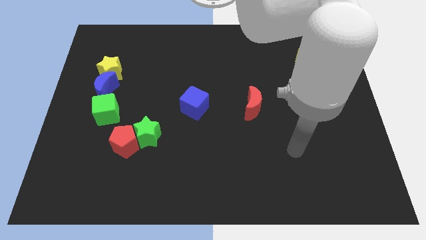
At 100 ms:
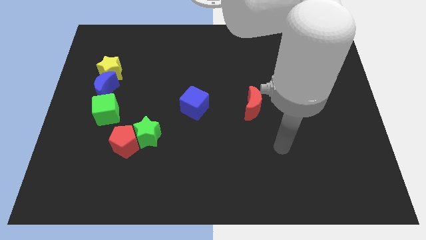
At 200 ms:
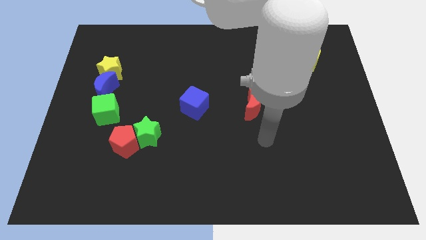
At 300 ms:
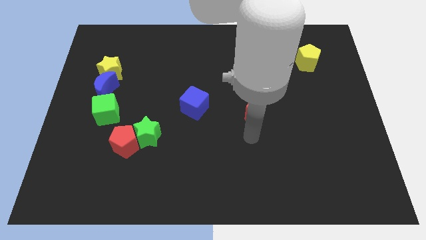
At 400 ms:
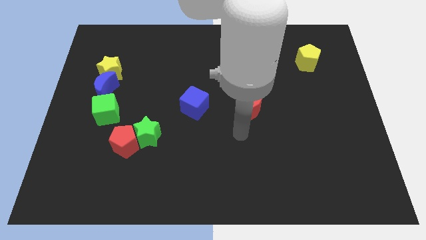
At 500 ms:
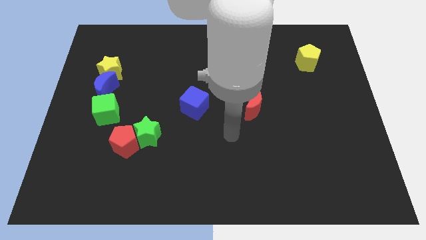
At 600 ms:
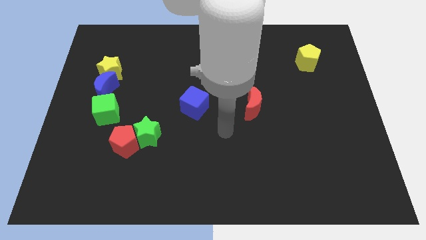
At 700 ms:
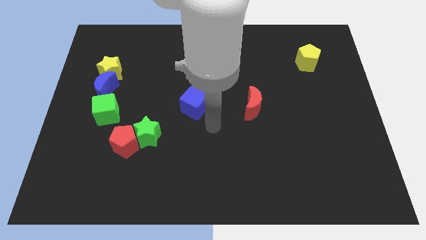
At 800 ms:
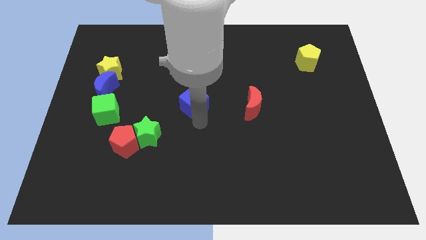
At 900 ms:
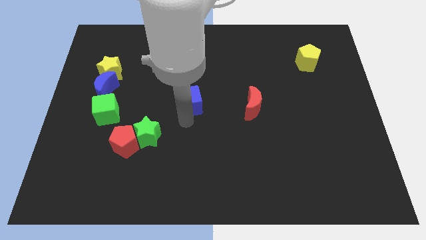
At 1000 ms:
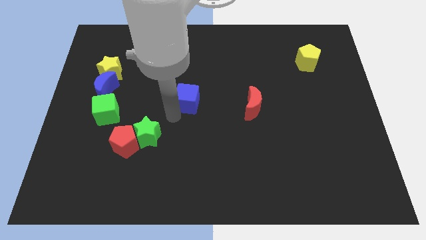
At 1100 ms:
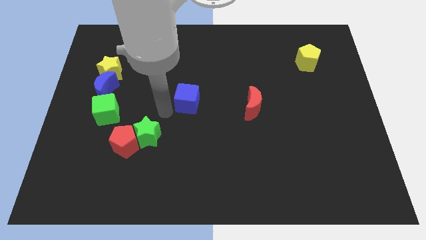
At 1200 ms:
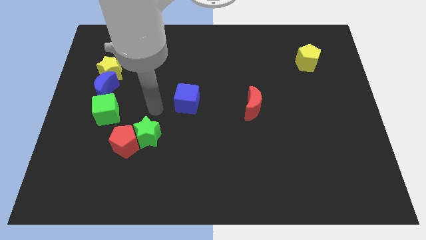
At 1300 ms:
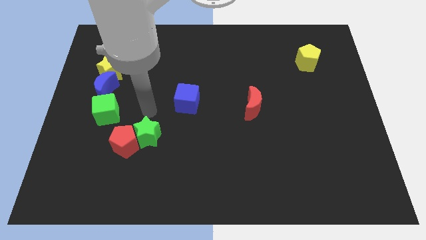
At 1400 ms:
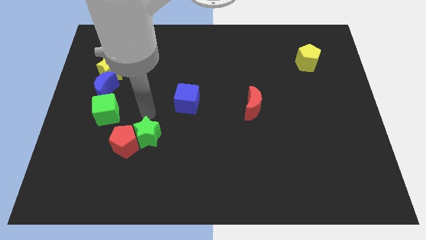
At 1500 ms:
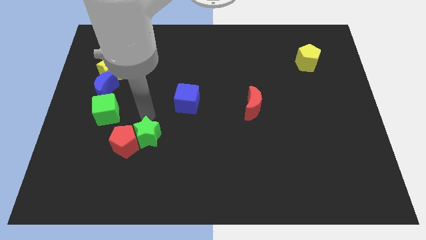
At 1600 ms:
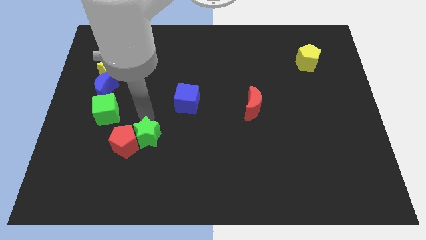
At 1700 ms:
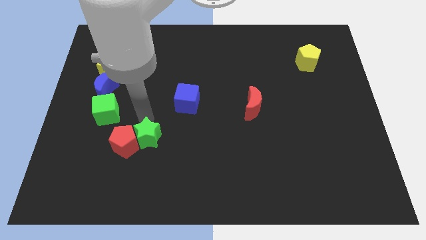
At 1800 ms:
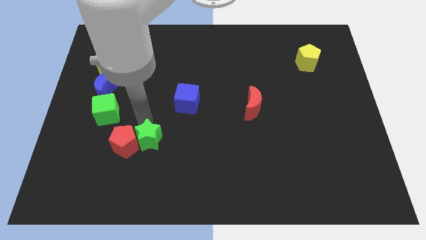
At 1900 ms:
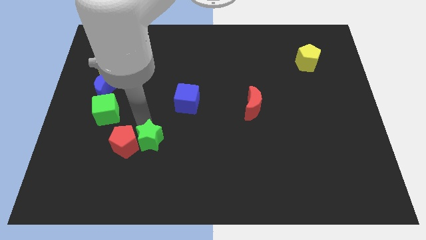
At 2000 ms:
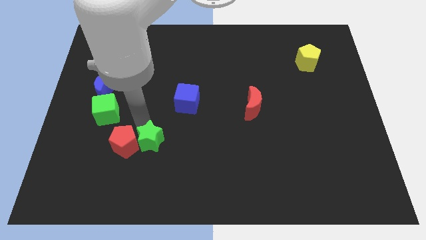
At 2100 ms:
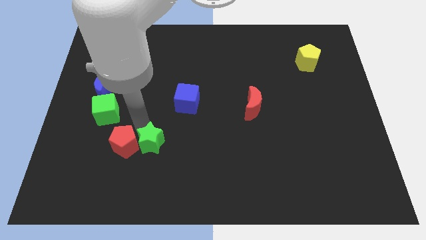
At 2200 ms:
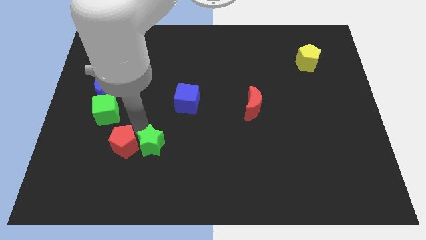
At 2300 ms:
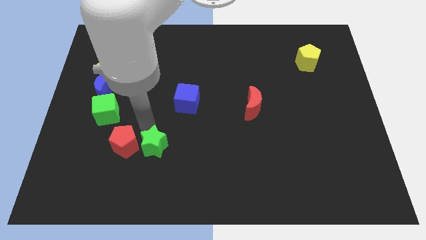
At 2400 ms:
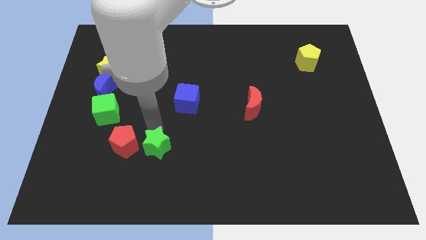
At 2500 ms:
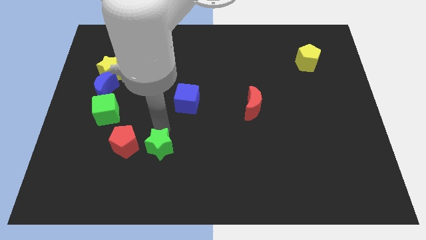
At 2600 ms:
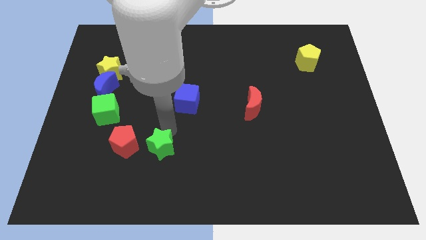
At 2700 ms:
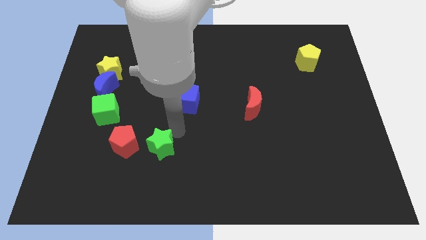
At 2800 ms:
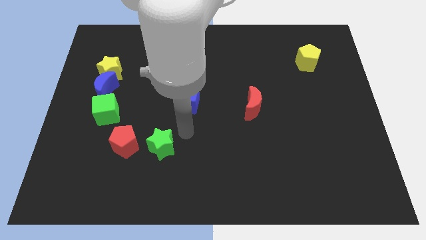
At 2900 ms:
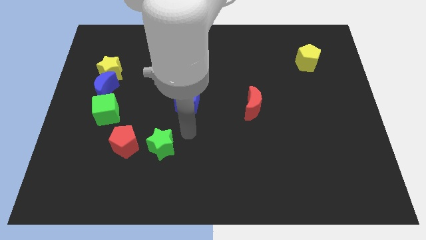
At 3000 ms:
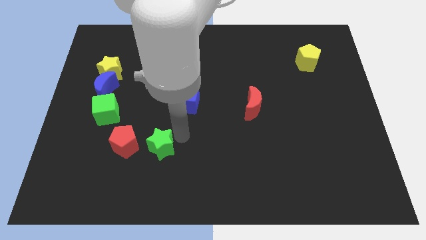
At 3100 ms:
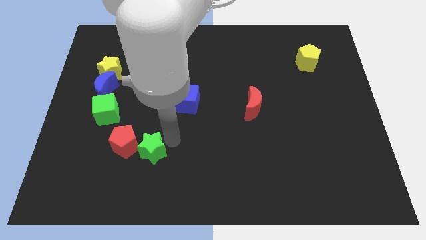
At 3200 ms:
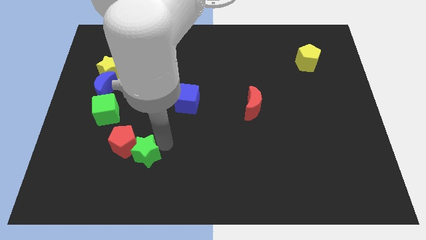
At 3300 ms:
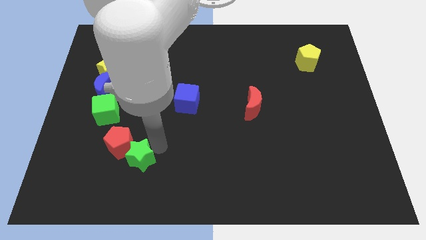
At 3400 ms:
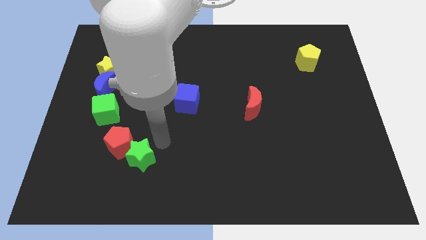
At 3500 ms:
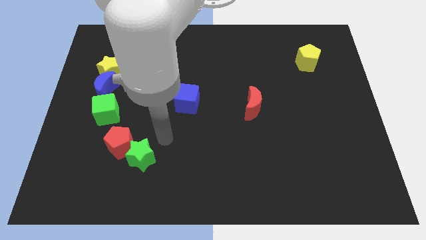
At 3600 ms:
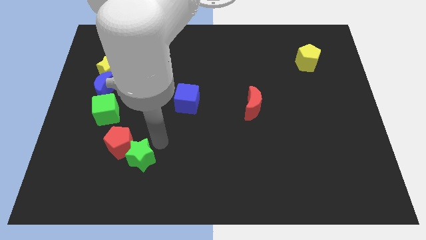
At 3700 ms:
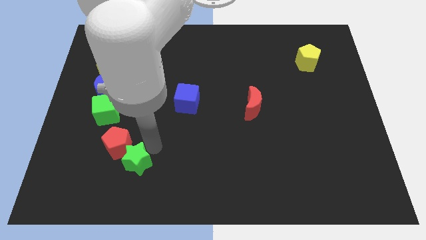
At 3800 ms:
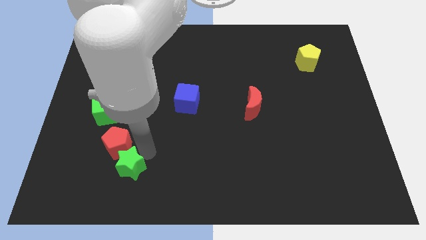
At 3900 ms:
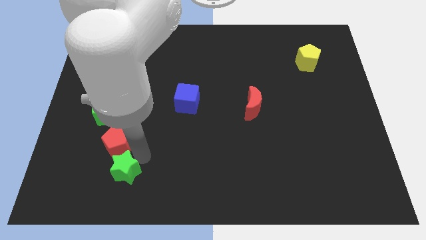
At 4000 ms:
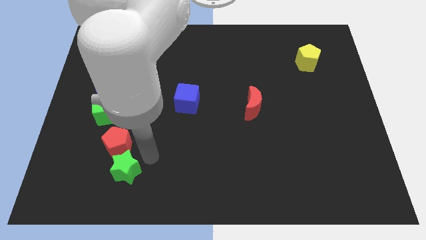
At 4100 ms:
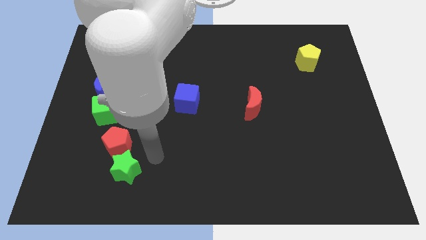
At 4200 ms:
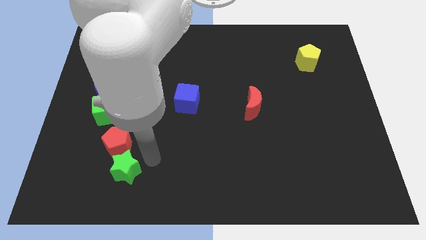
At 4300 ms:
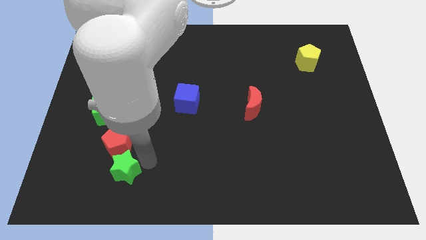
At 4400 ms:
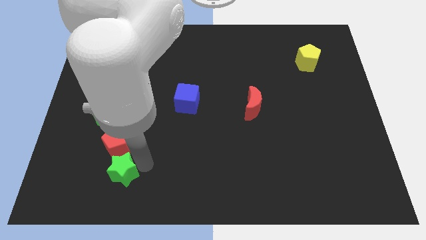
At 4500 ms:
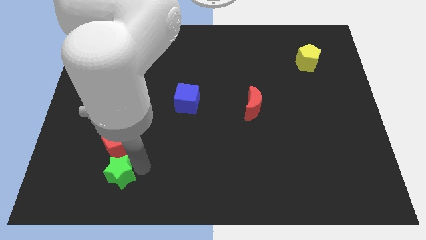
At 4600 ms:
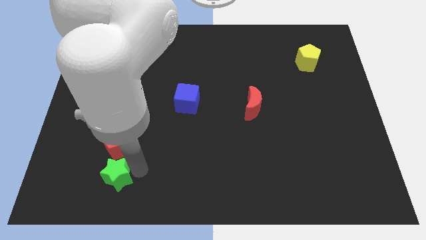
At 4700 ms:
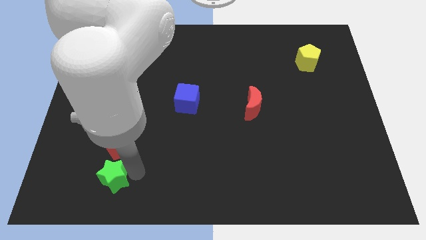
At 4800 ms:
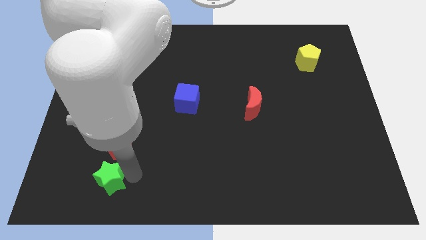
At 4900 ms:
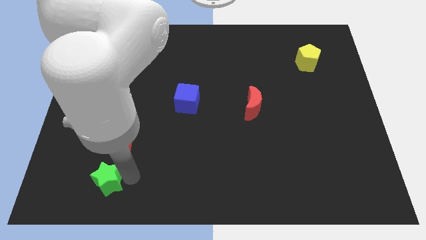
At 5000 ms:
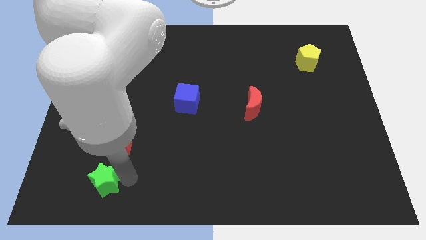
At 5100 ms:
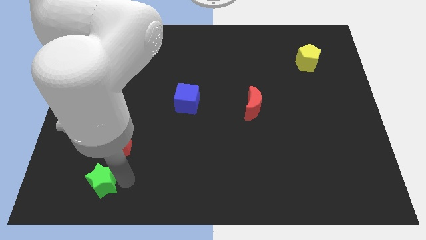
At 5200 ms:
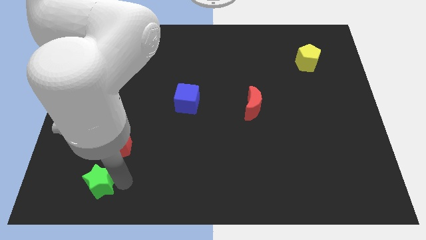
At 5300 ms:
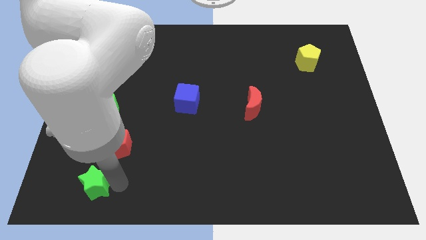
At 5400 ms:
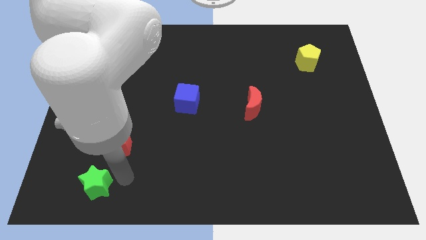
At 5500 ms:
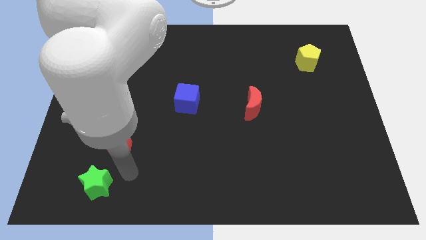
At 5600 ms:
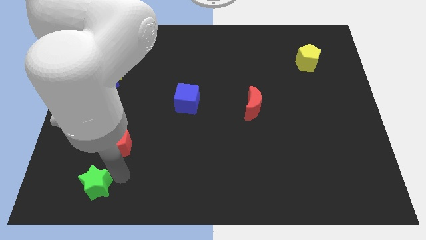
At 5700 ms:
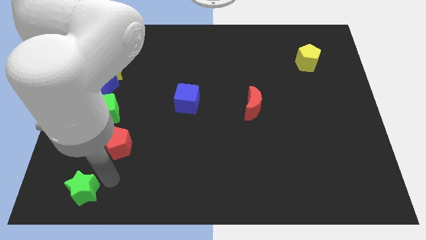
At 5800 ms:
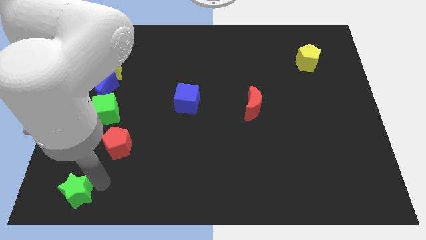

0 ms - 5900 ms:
push the green star to the bottom left of the board
